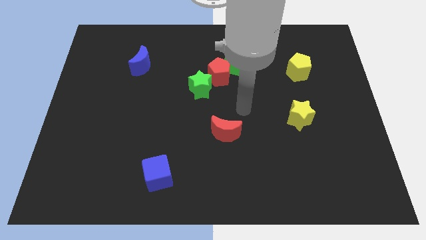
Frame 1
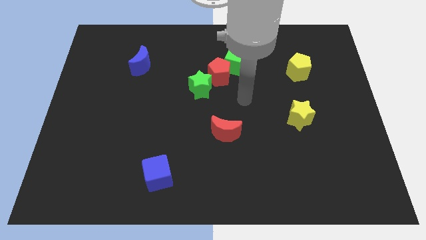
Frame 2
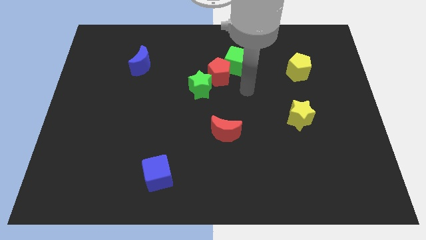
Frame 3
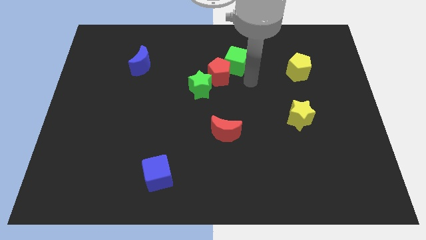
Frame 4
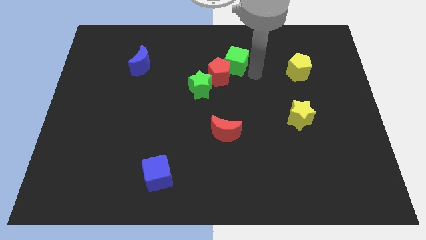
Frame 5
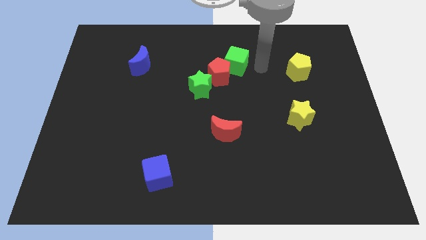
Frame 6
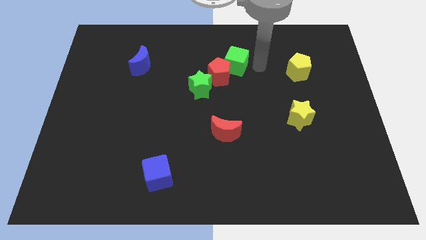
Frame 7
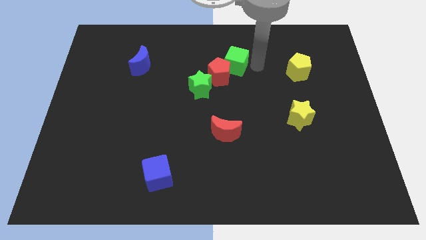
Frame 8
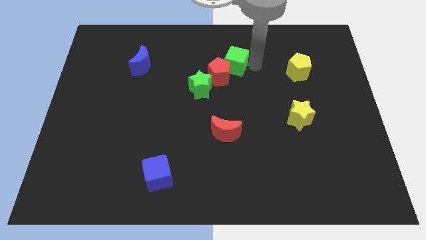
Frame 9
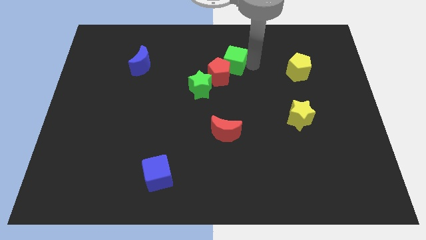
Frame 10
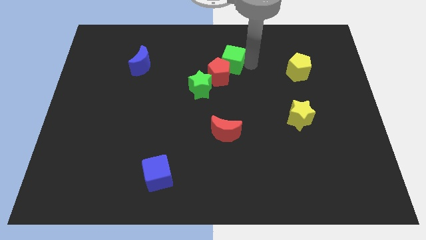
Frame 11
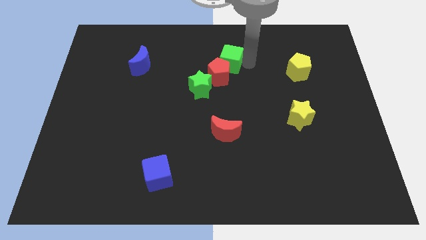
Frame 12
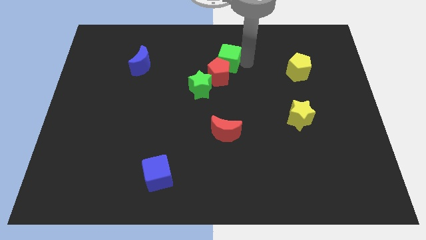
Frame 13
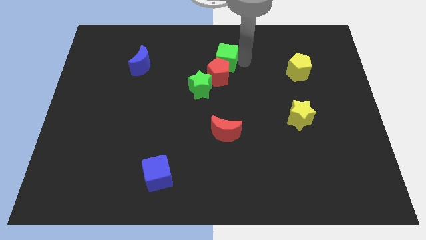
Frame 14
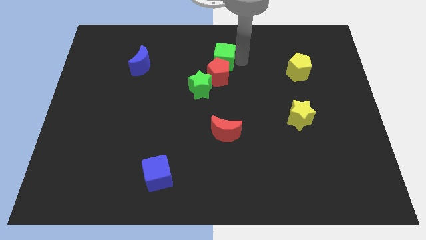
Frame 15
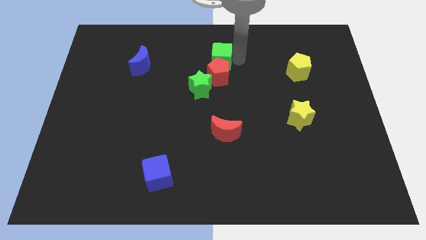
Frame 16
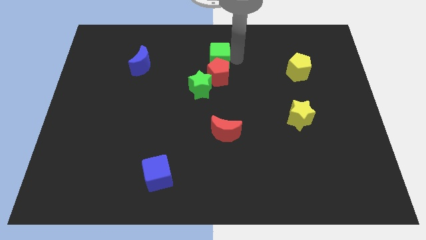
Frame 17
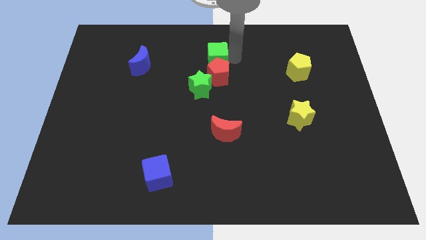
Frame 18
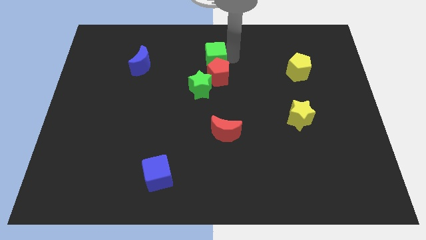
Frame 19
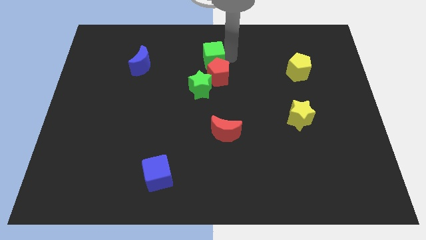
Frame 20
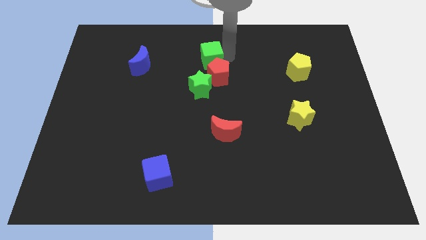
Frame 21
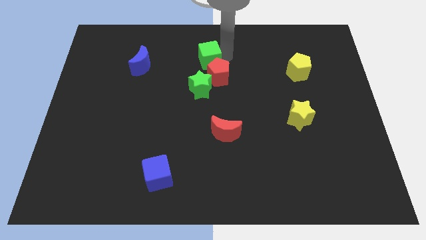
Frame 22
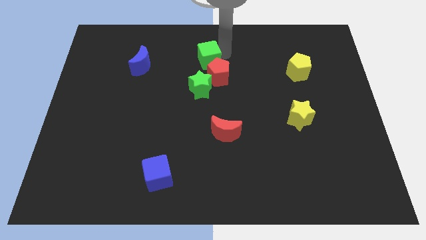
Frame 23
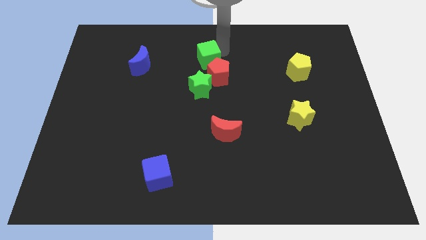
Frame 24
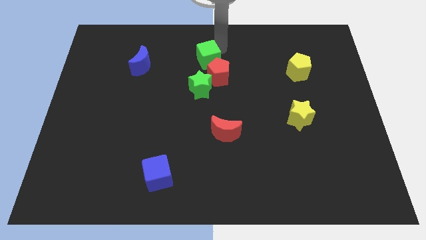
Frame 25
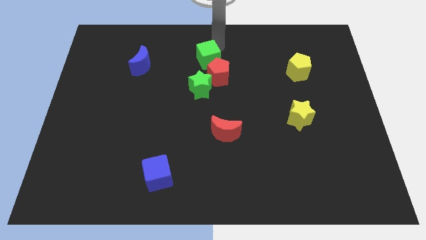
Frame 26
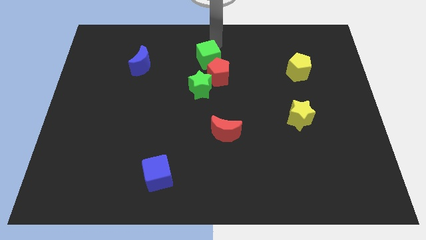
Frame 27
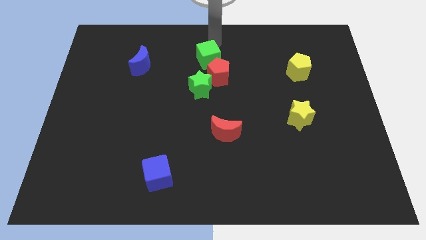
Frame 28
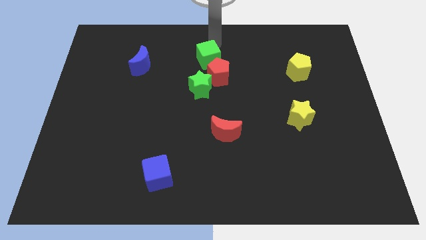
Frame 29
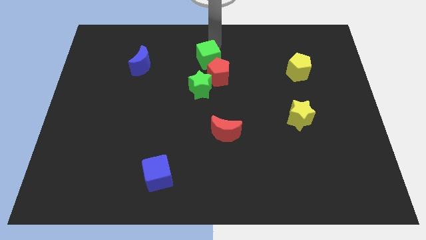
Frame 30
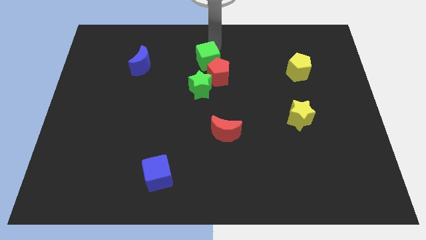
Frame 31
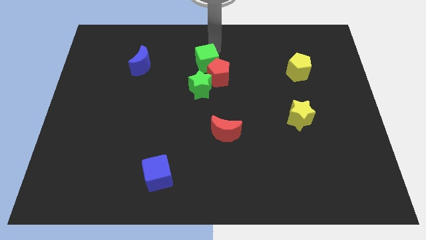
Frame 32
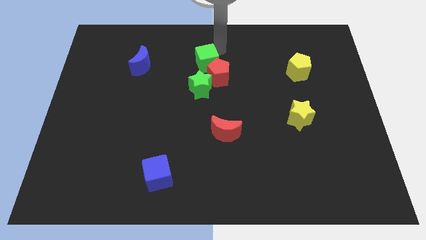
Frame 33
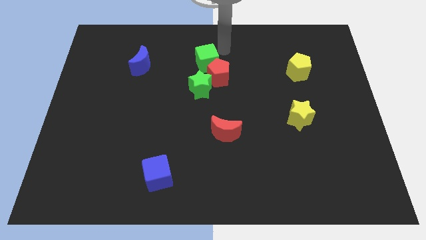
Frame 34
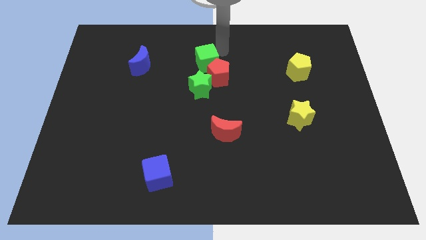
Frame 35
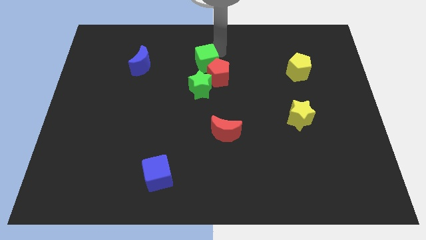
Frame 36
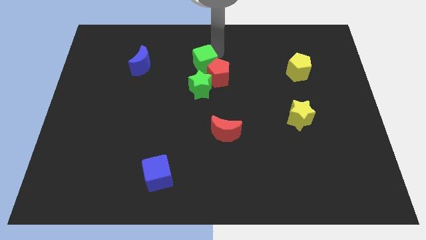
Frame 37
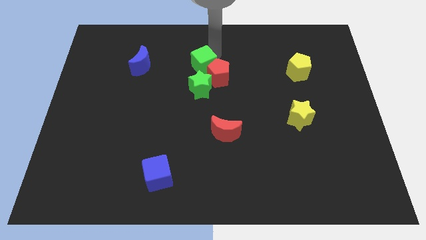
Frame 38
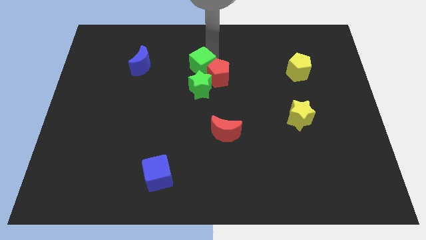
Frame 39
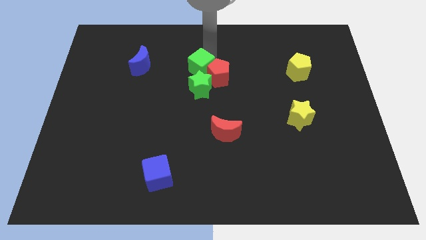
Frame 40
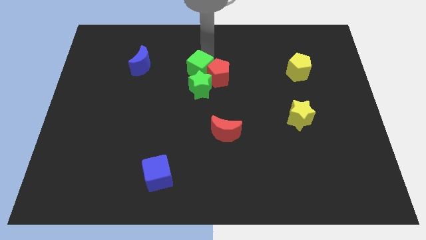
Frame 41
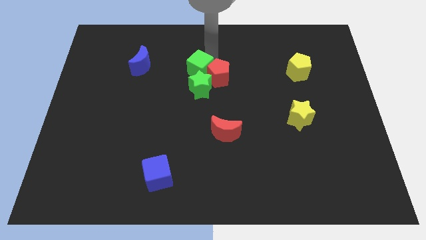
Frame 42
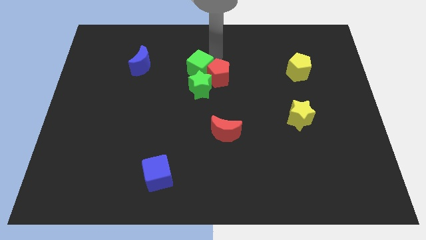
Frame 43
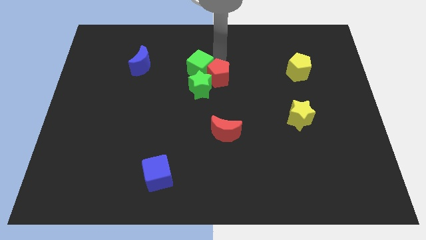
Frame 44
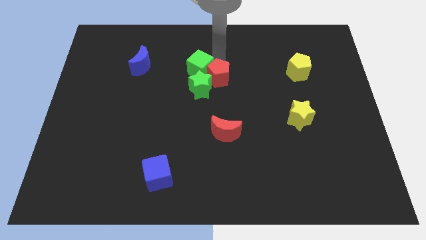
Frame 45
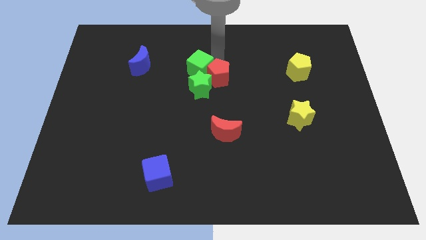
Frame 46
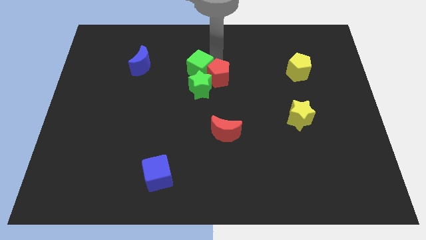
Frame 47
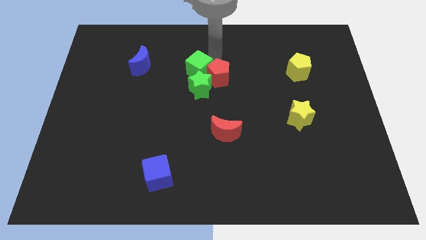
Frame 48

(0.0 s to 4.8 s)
push the green cube a little bit diagonally downwards and to the left

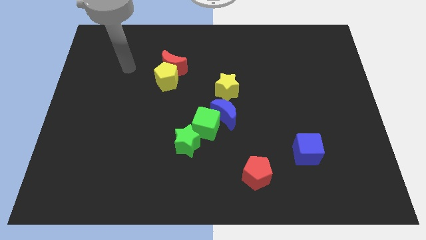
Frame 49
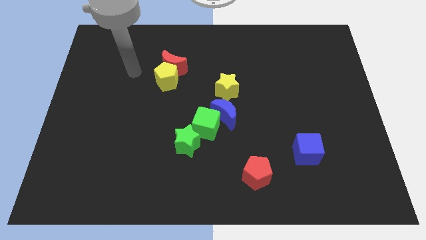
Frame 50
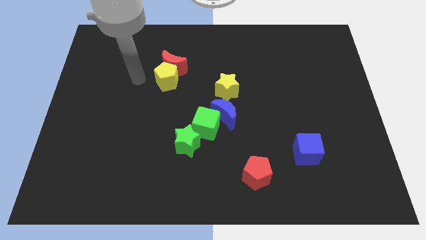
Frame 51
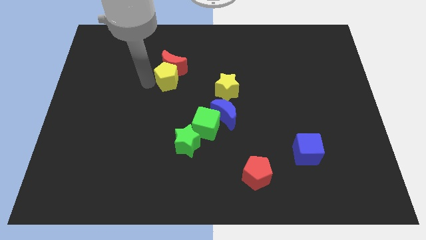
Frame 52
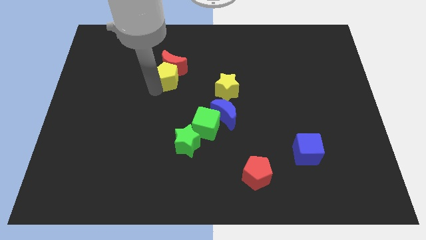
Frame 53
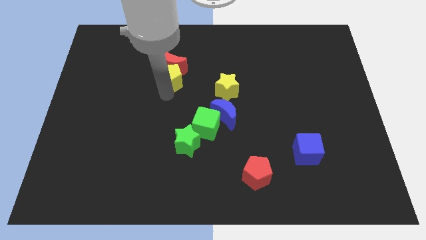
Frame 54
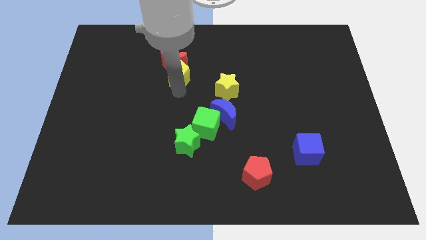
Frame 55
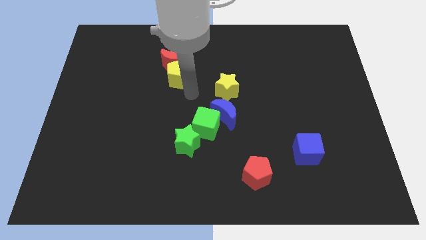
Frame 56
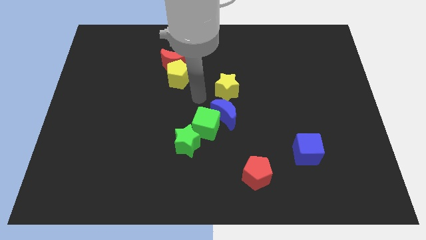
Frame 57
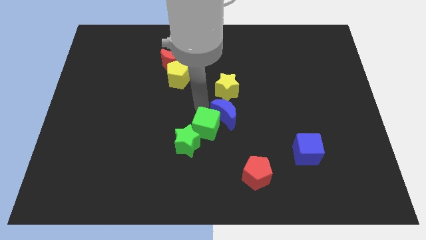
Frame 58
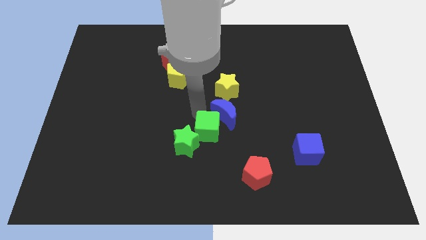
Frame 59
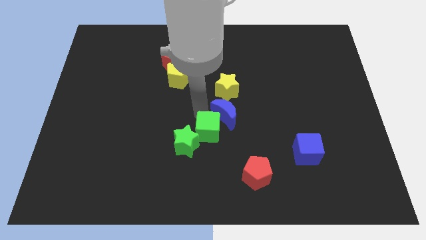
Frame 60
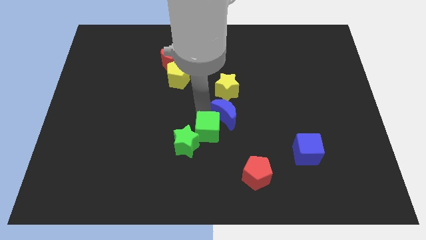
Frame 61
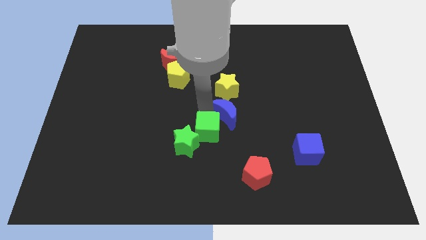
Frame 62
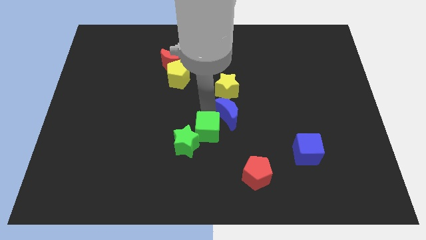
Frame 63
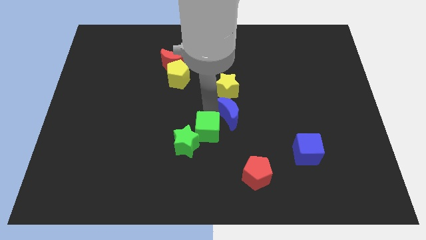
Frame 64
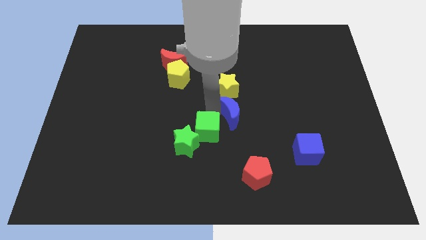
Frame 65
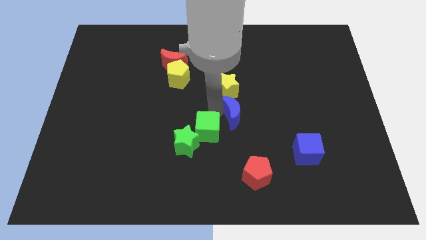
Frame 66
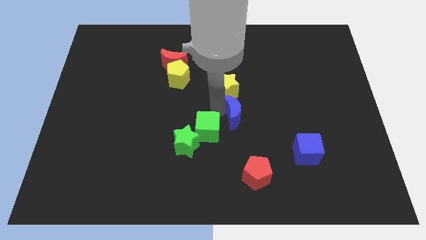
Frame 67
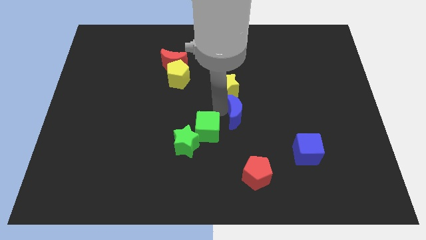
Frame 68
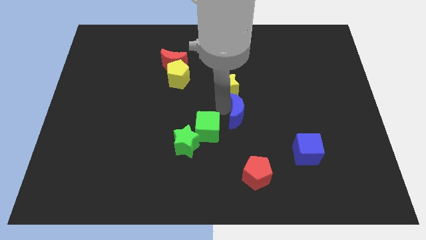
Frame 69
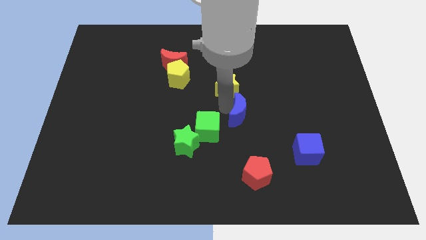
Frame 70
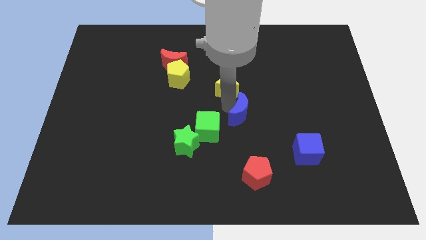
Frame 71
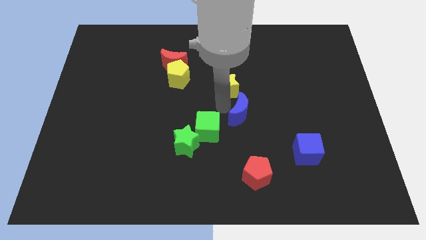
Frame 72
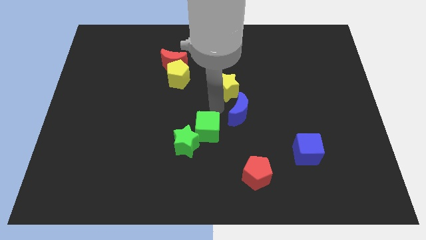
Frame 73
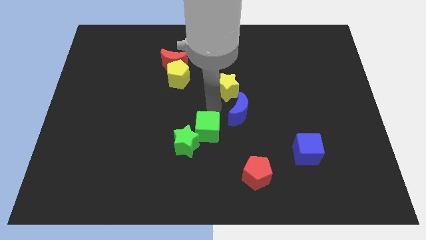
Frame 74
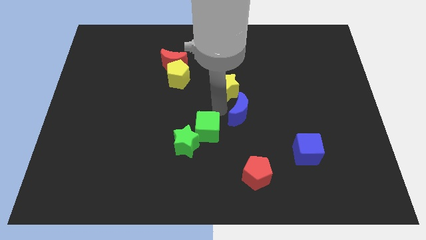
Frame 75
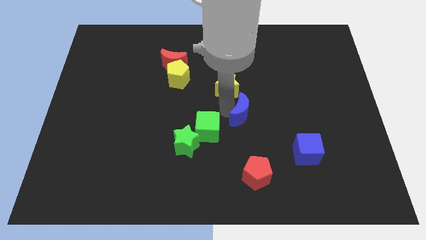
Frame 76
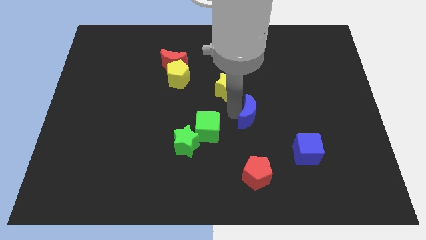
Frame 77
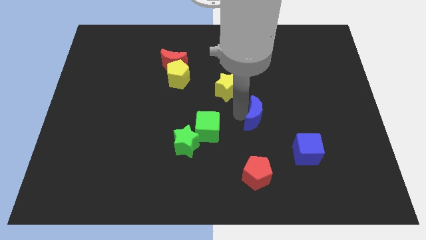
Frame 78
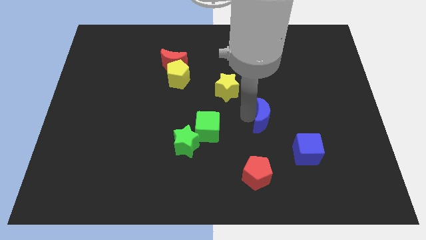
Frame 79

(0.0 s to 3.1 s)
move the blue moon a little bit to the right

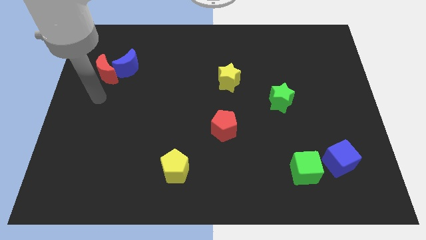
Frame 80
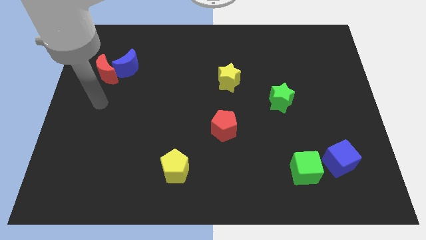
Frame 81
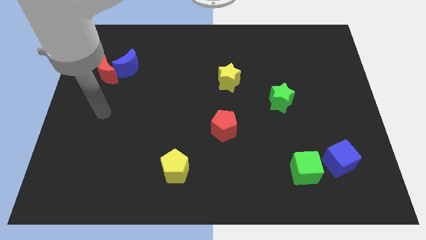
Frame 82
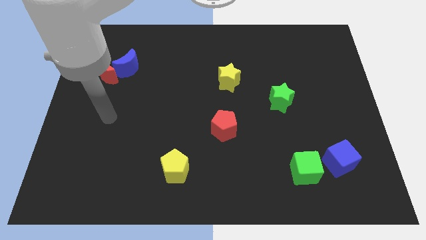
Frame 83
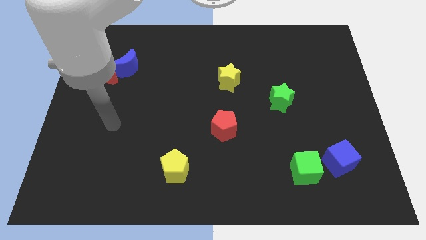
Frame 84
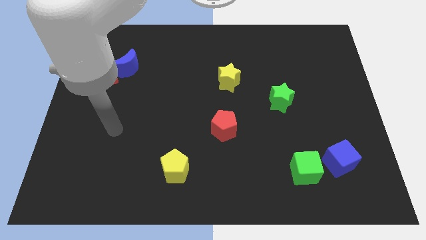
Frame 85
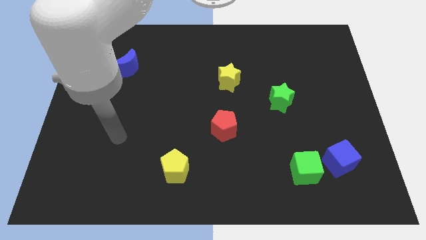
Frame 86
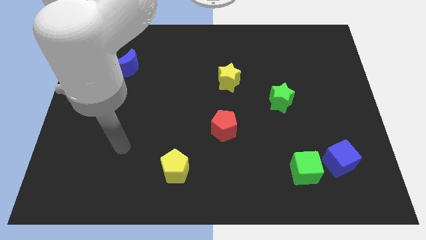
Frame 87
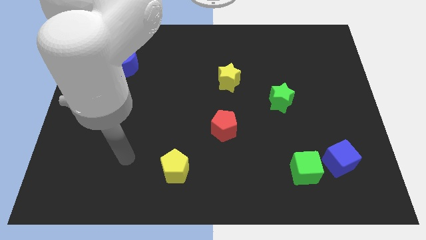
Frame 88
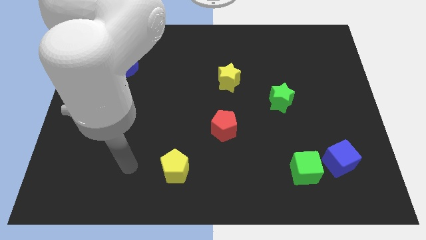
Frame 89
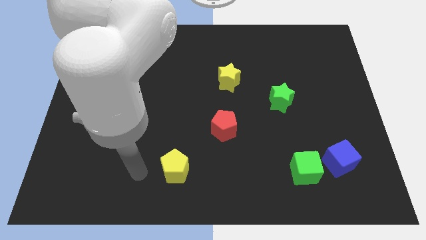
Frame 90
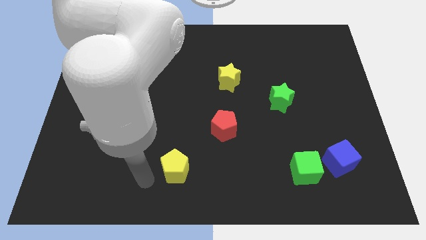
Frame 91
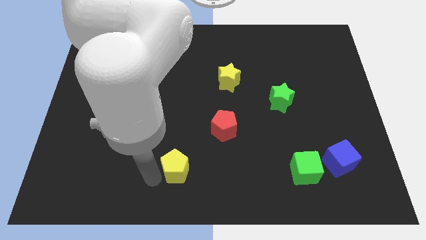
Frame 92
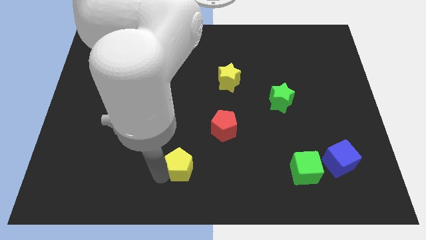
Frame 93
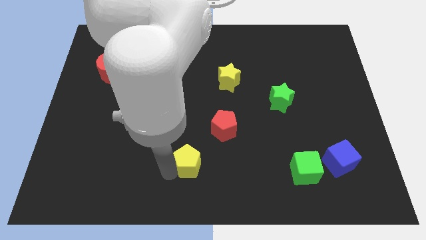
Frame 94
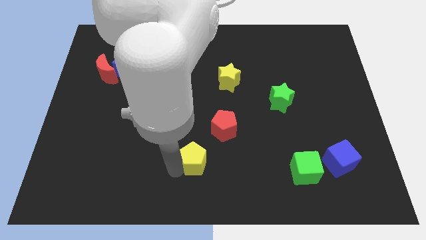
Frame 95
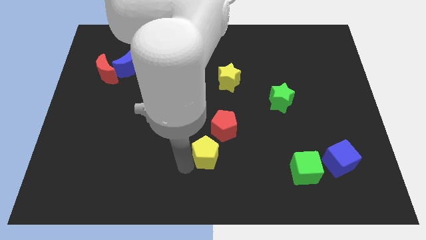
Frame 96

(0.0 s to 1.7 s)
slightly move the yellow pentagon up and to the right
